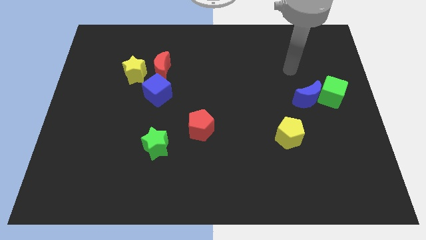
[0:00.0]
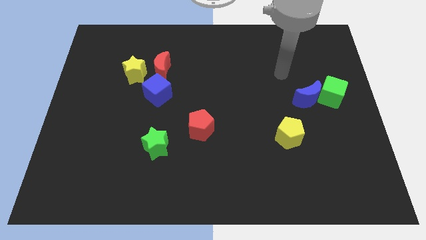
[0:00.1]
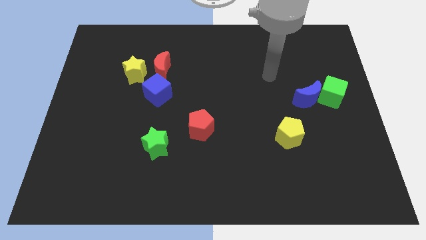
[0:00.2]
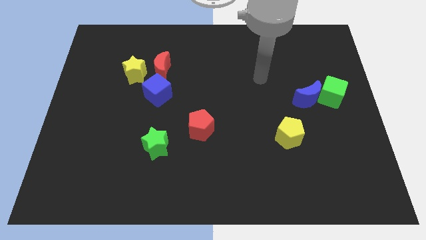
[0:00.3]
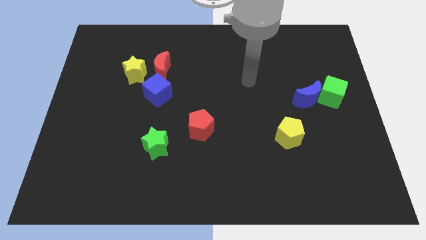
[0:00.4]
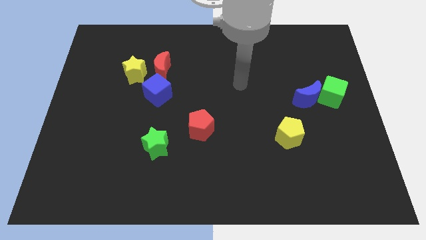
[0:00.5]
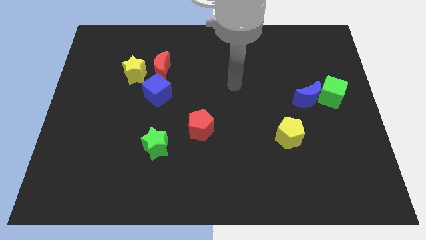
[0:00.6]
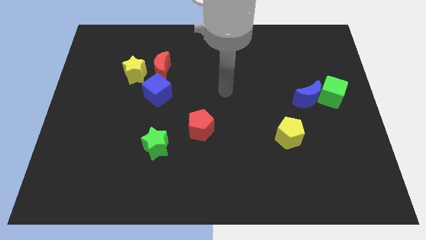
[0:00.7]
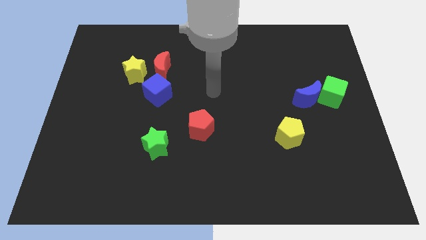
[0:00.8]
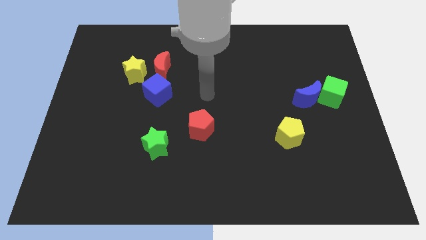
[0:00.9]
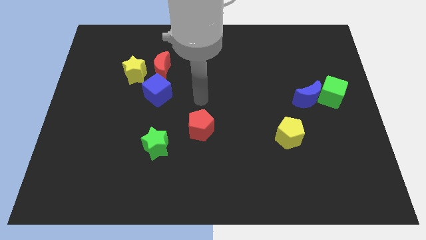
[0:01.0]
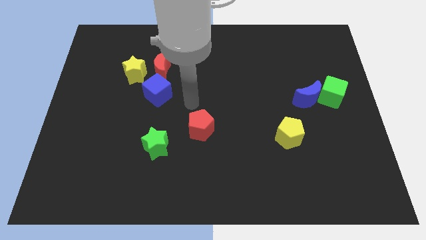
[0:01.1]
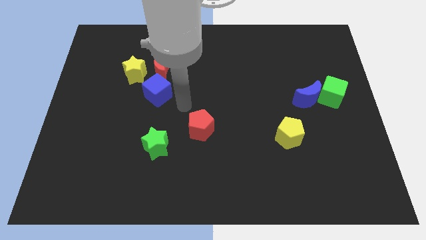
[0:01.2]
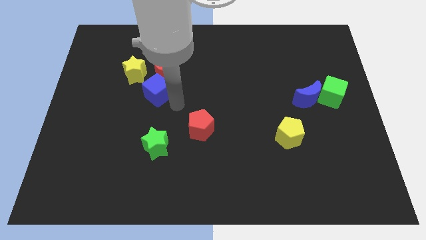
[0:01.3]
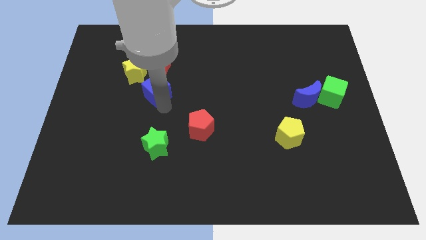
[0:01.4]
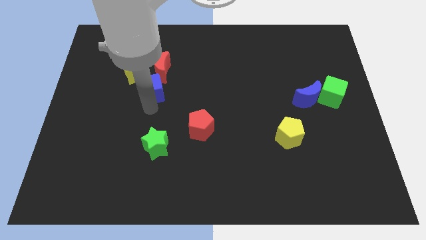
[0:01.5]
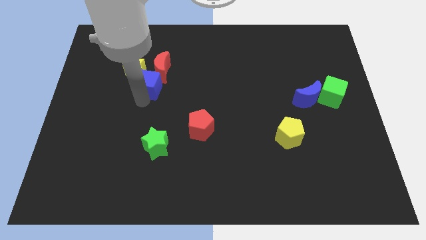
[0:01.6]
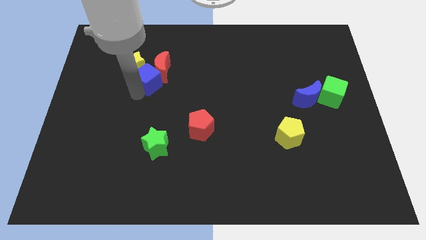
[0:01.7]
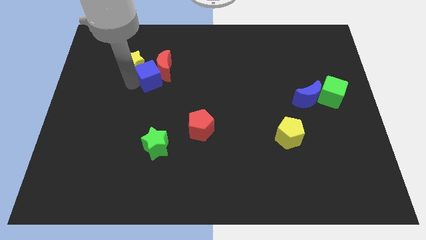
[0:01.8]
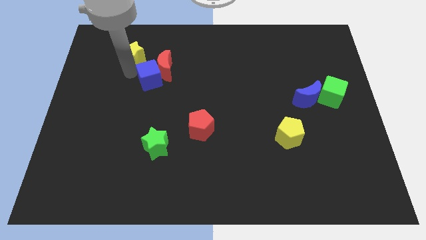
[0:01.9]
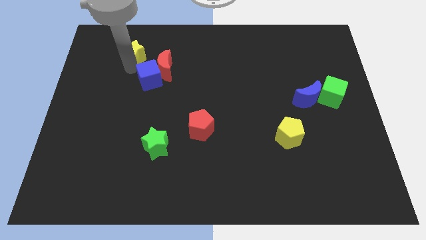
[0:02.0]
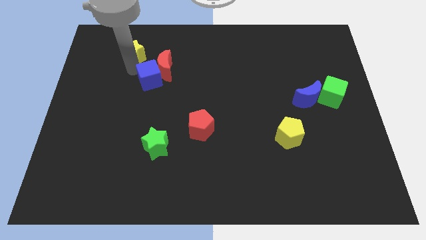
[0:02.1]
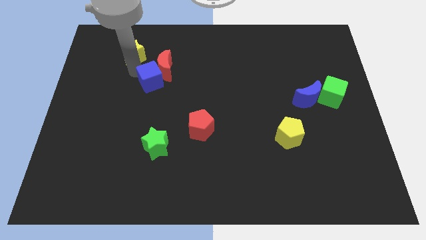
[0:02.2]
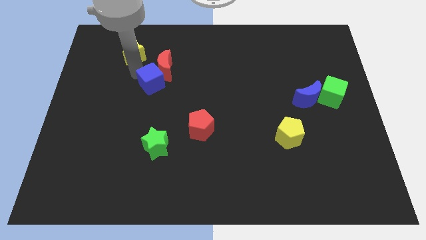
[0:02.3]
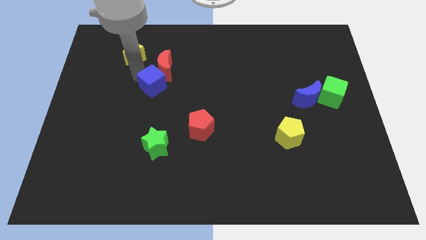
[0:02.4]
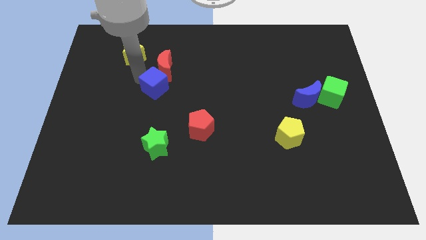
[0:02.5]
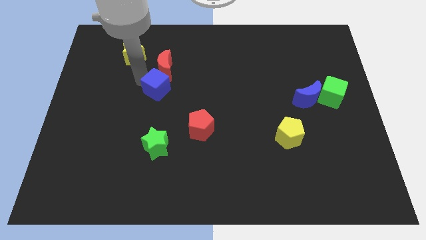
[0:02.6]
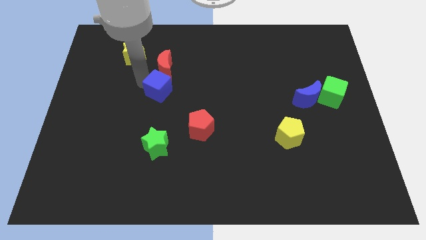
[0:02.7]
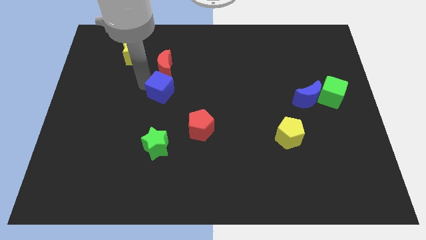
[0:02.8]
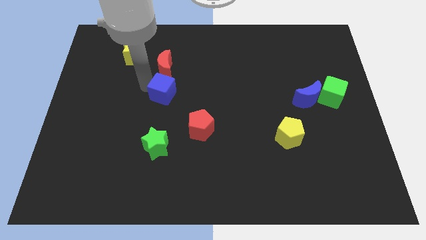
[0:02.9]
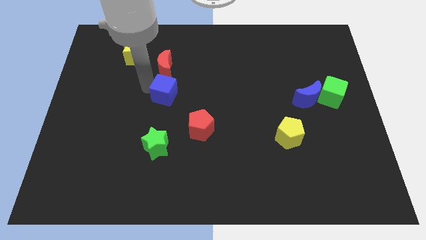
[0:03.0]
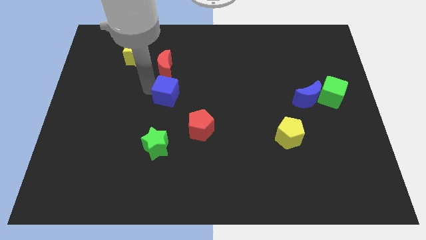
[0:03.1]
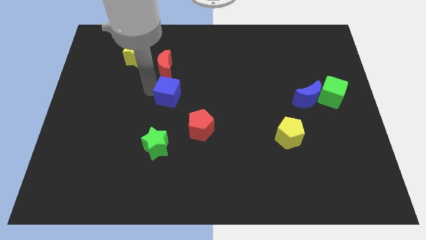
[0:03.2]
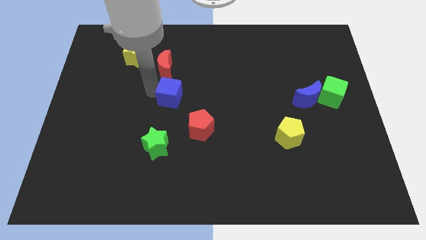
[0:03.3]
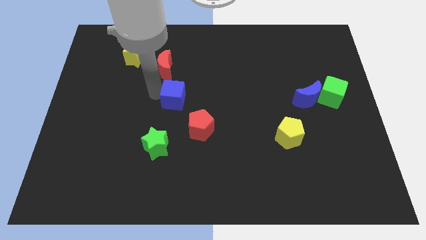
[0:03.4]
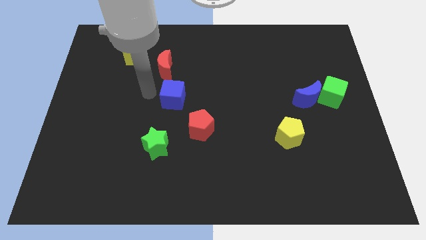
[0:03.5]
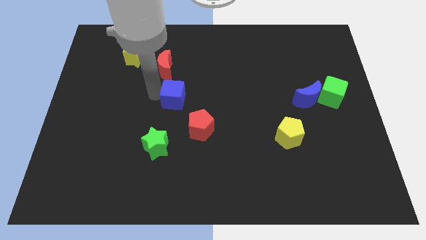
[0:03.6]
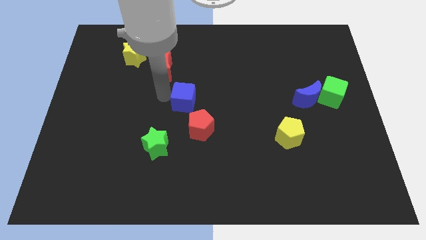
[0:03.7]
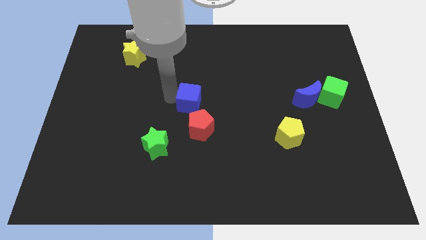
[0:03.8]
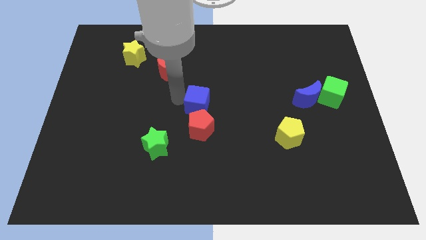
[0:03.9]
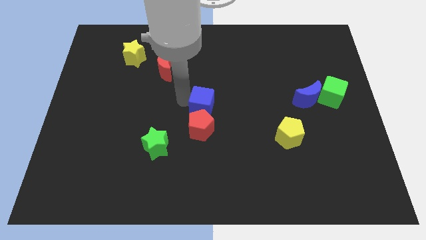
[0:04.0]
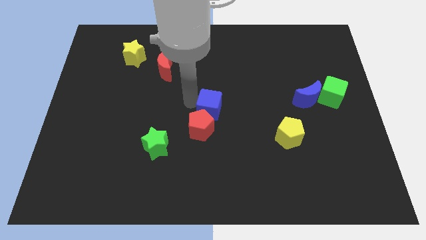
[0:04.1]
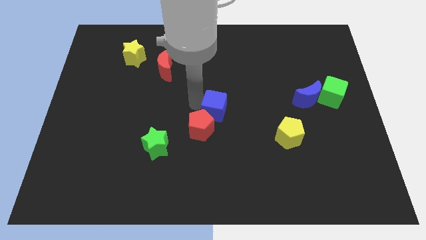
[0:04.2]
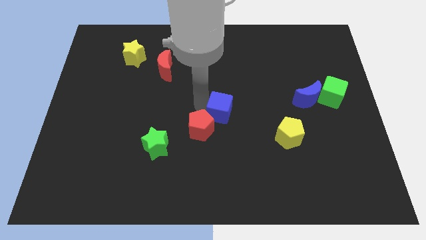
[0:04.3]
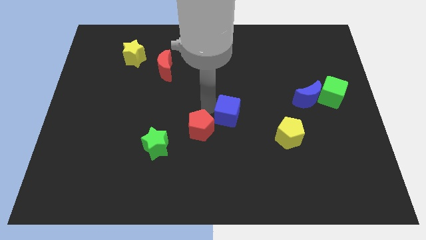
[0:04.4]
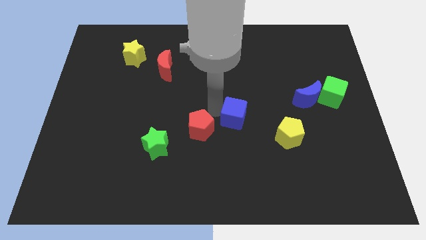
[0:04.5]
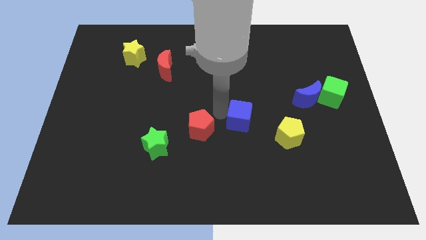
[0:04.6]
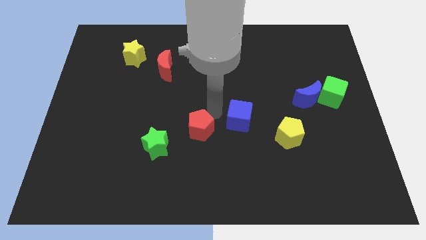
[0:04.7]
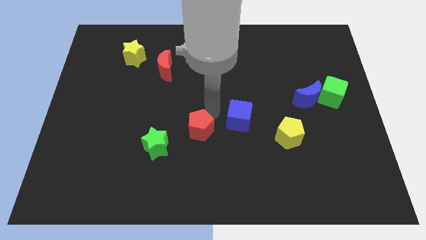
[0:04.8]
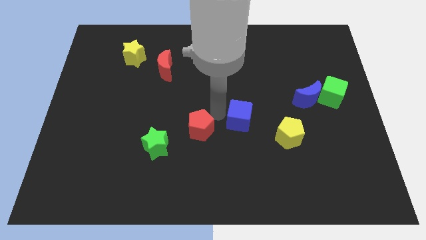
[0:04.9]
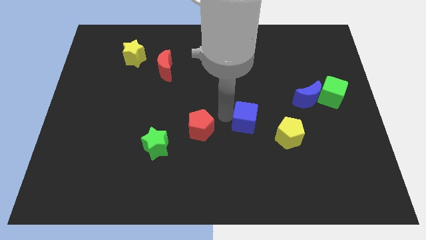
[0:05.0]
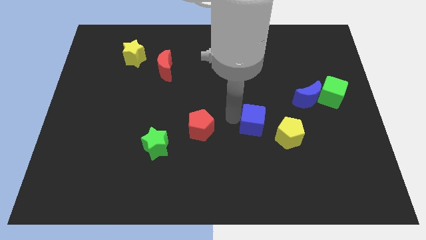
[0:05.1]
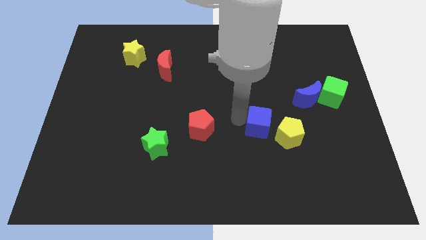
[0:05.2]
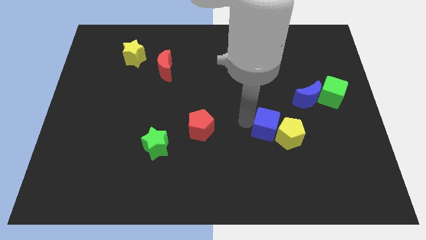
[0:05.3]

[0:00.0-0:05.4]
move the blue cube towards the yellow pentagon

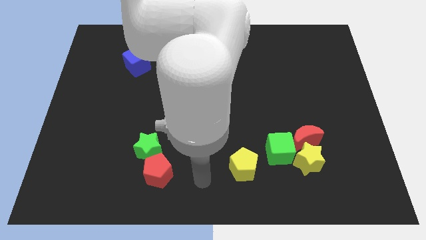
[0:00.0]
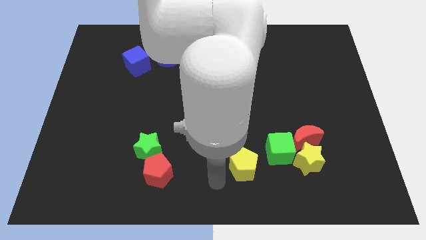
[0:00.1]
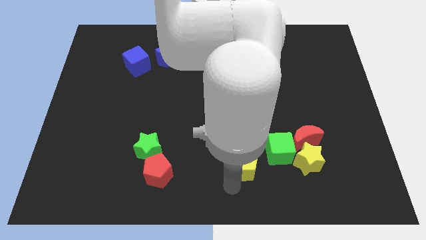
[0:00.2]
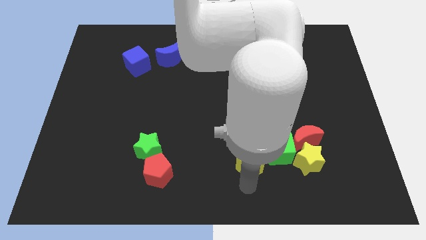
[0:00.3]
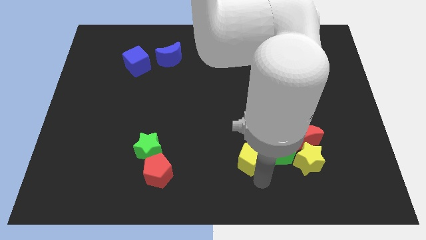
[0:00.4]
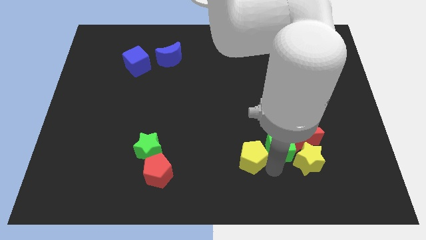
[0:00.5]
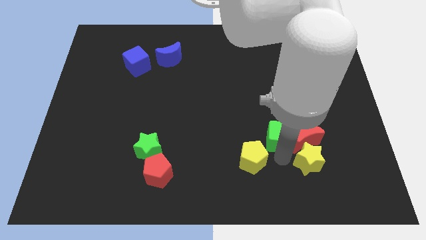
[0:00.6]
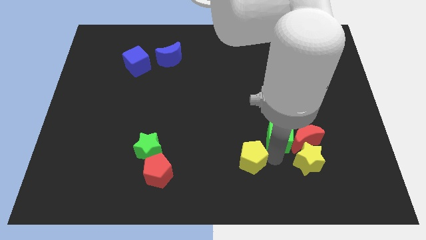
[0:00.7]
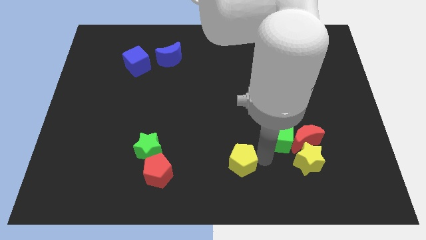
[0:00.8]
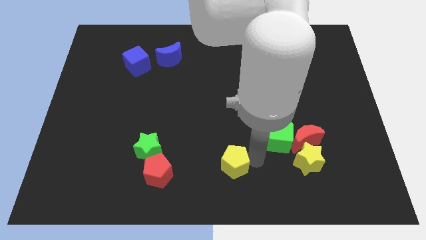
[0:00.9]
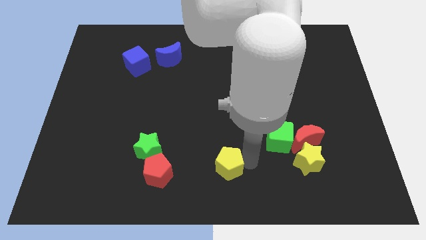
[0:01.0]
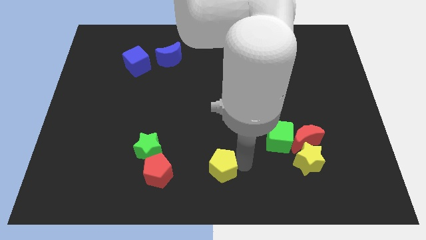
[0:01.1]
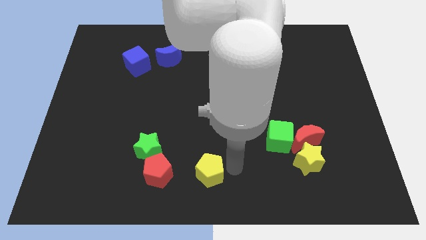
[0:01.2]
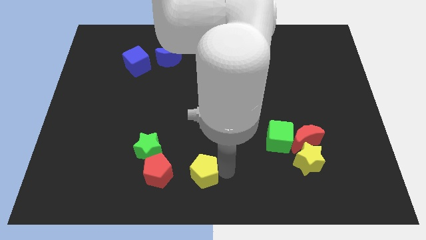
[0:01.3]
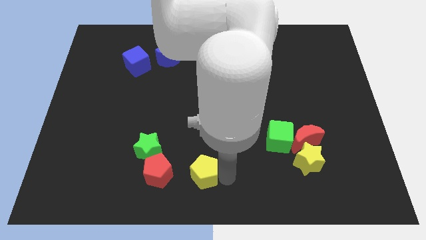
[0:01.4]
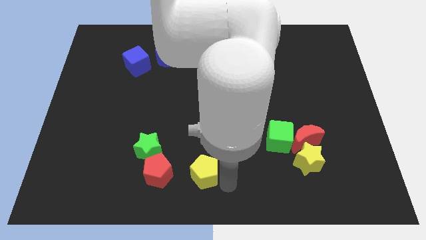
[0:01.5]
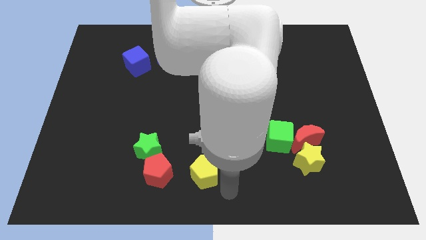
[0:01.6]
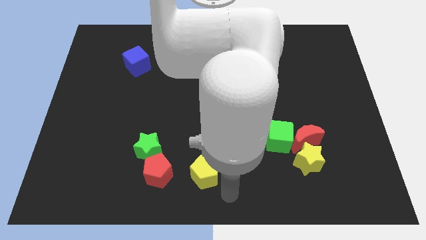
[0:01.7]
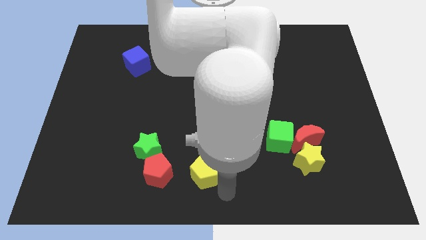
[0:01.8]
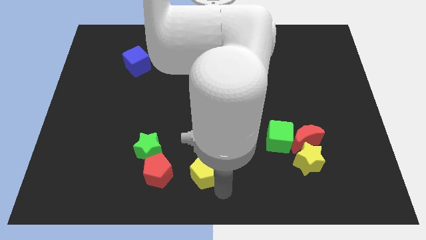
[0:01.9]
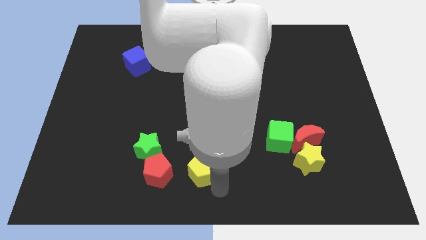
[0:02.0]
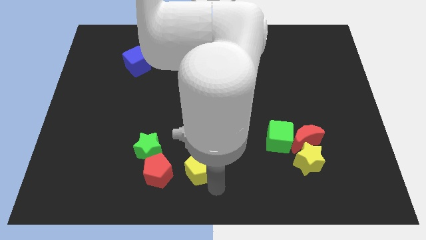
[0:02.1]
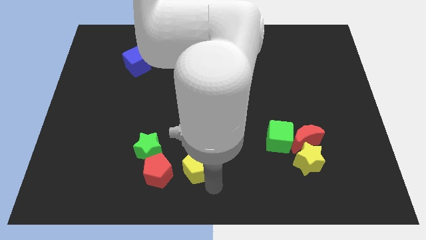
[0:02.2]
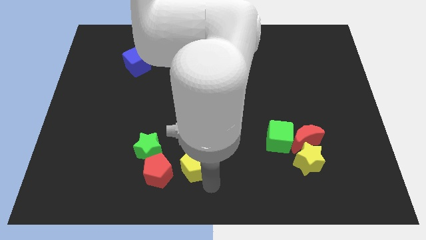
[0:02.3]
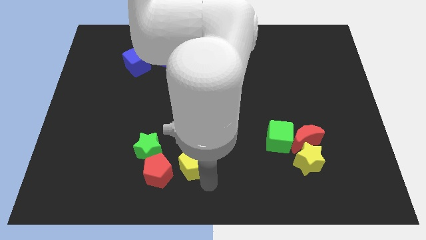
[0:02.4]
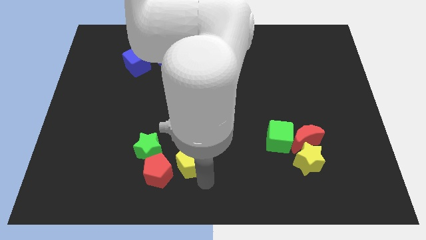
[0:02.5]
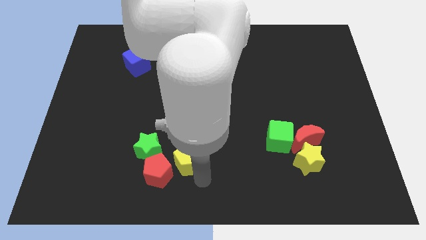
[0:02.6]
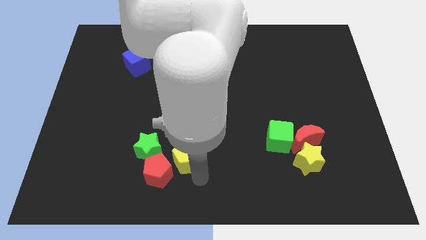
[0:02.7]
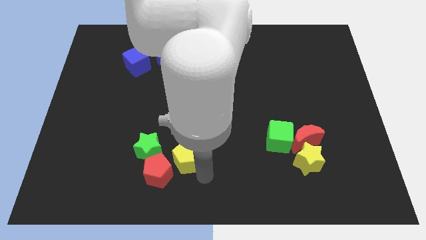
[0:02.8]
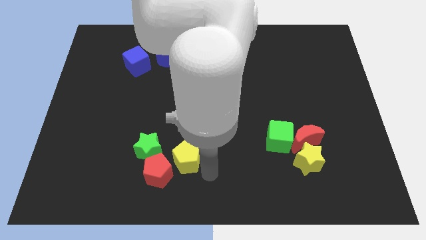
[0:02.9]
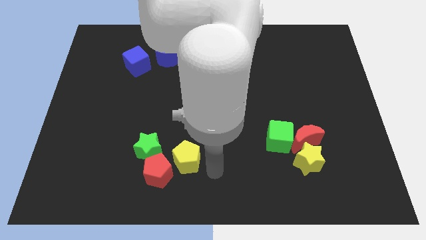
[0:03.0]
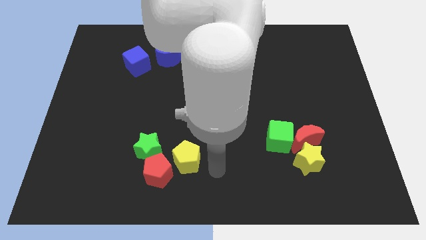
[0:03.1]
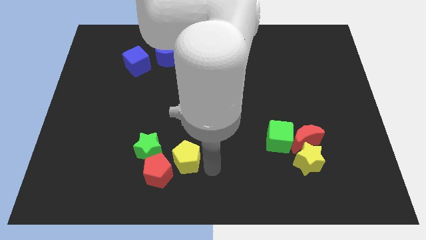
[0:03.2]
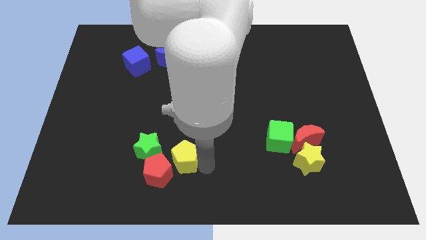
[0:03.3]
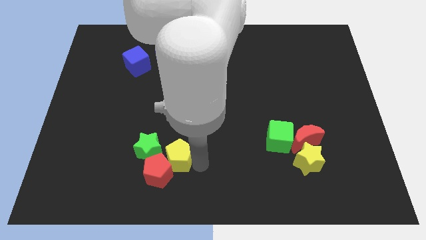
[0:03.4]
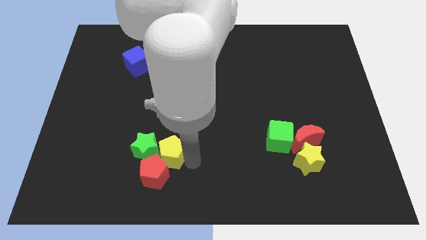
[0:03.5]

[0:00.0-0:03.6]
slide the yellow pentagon next to the green star
